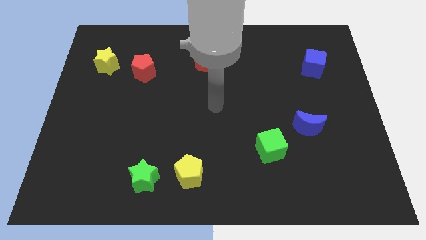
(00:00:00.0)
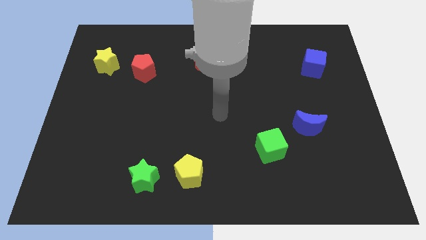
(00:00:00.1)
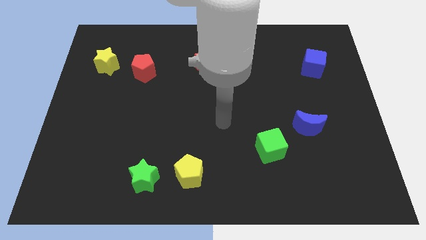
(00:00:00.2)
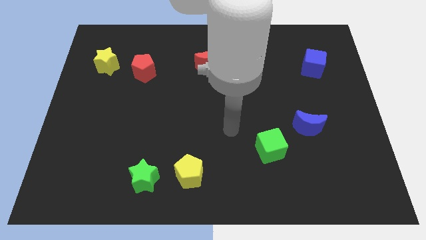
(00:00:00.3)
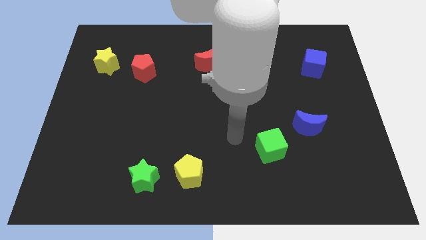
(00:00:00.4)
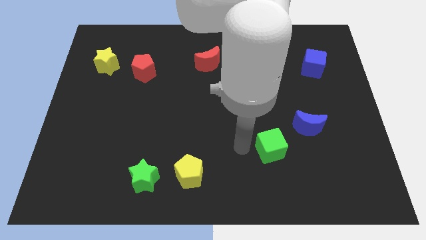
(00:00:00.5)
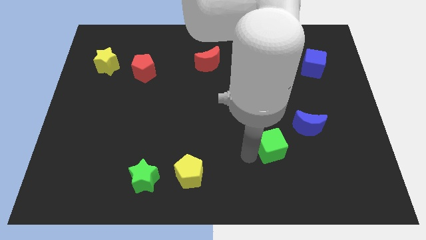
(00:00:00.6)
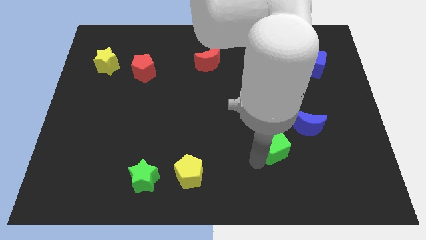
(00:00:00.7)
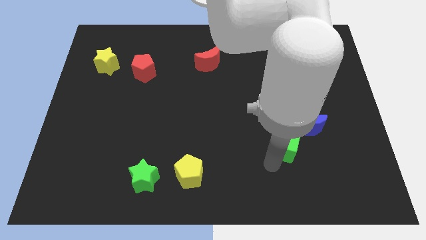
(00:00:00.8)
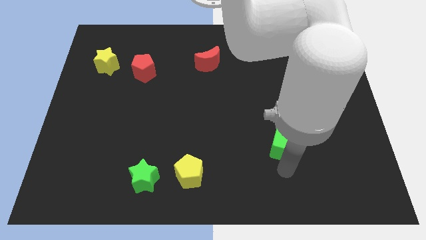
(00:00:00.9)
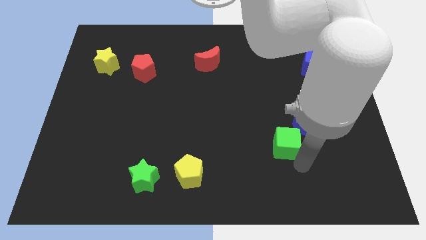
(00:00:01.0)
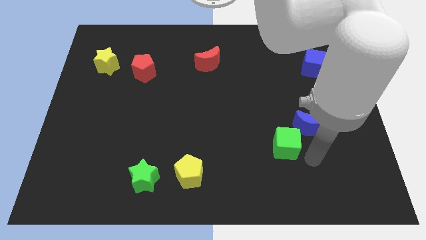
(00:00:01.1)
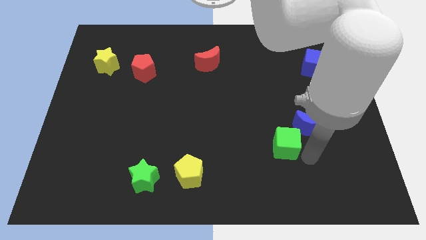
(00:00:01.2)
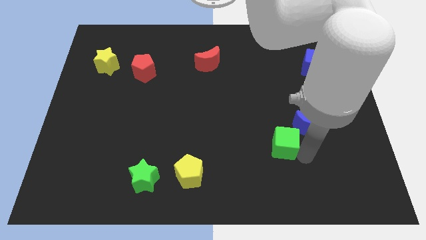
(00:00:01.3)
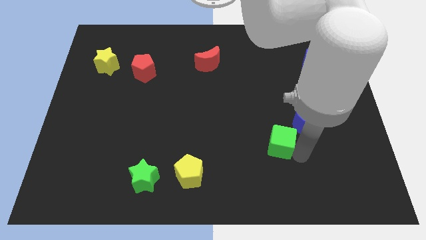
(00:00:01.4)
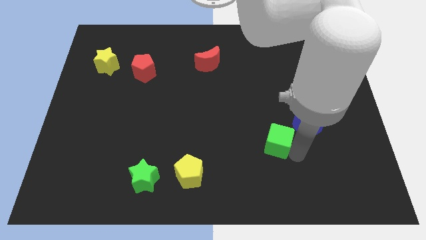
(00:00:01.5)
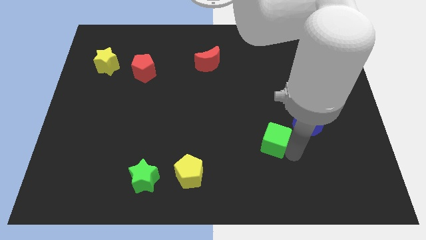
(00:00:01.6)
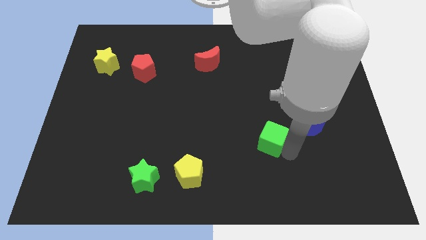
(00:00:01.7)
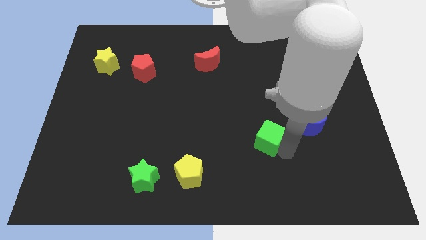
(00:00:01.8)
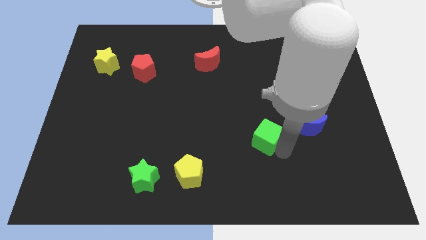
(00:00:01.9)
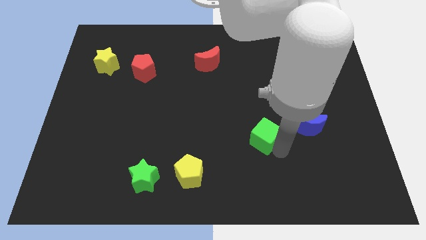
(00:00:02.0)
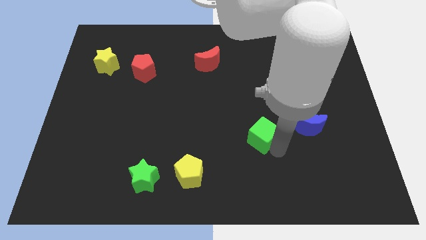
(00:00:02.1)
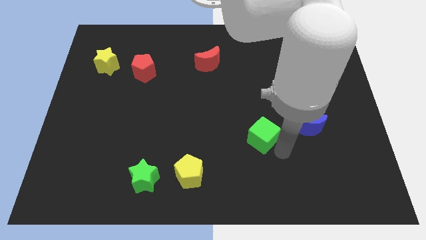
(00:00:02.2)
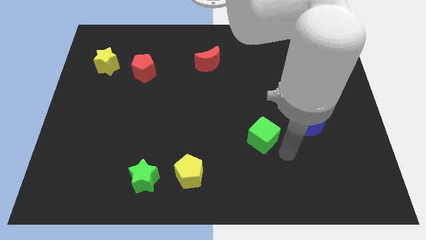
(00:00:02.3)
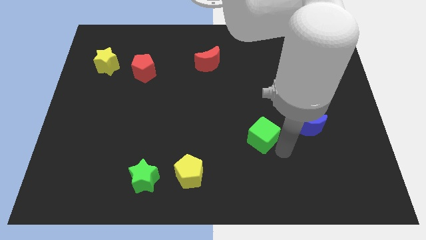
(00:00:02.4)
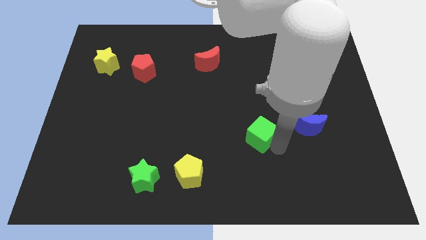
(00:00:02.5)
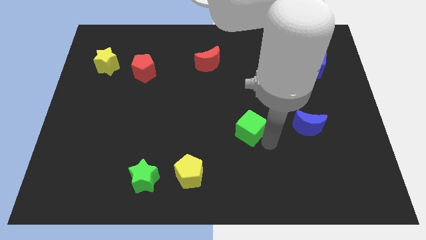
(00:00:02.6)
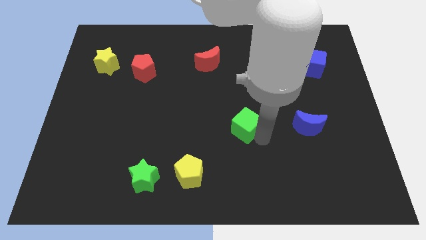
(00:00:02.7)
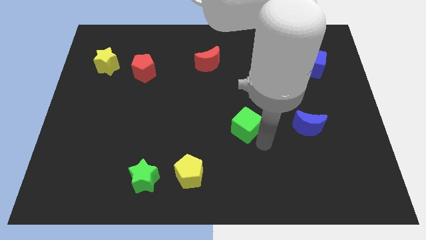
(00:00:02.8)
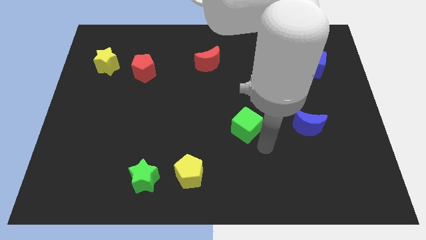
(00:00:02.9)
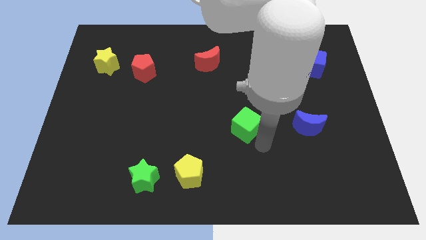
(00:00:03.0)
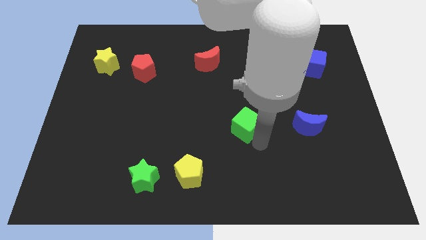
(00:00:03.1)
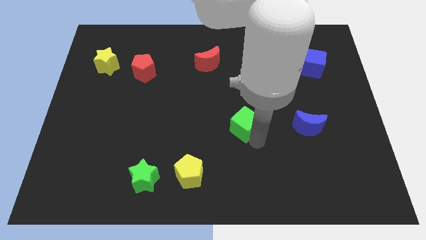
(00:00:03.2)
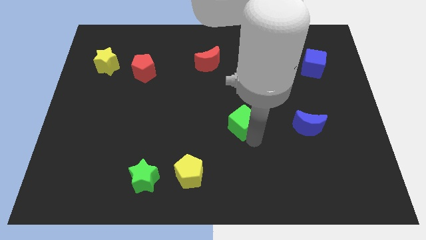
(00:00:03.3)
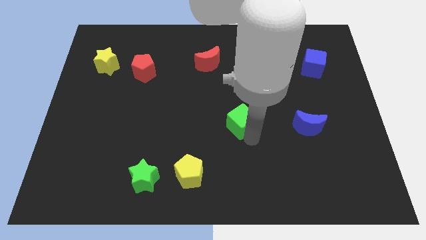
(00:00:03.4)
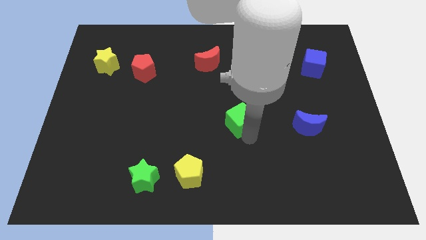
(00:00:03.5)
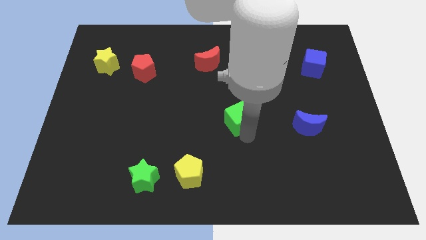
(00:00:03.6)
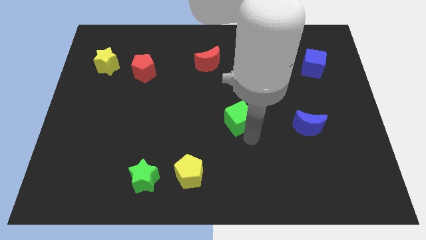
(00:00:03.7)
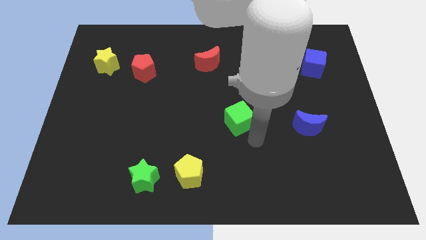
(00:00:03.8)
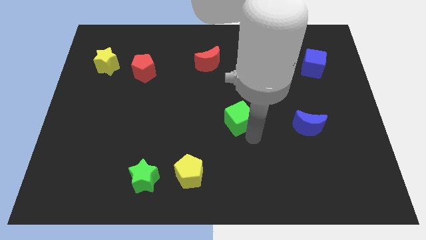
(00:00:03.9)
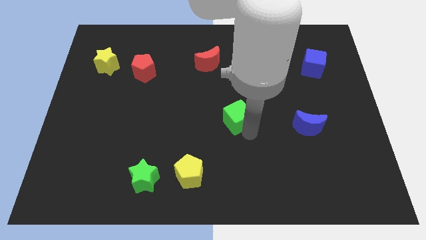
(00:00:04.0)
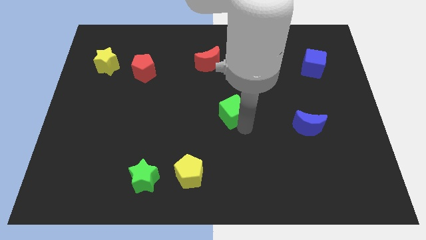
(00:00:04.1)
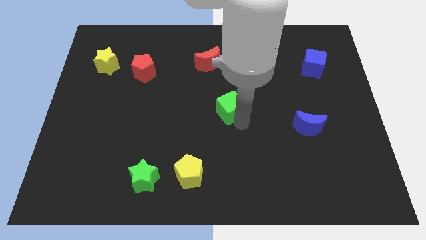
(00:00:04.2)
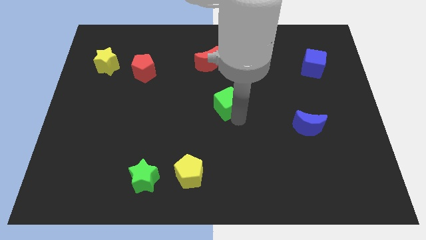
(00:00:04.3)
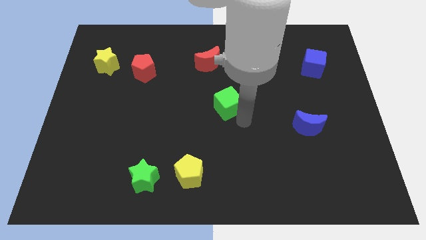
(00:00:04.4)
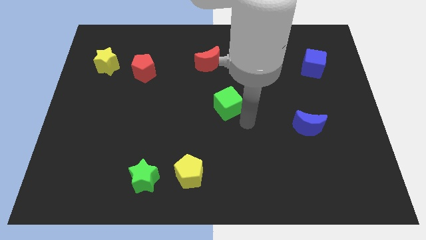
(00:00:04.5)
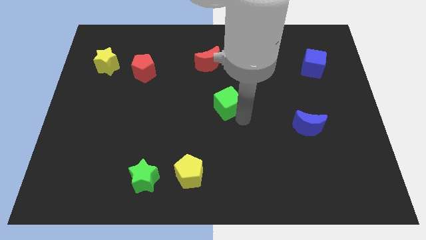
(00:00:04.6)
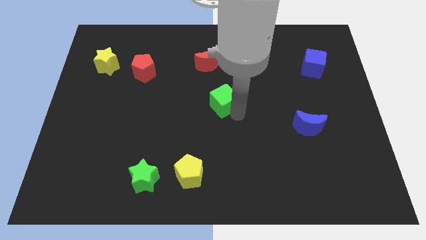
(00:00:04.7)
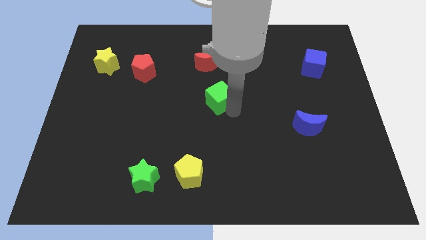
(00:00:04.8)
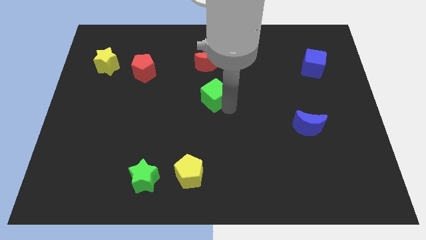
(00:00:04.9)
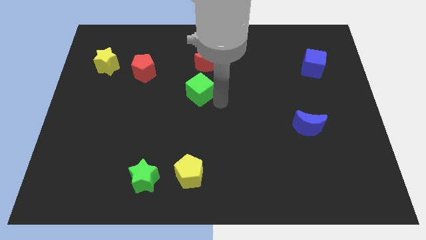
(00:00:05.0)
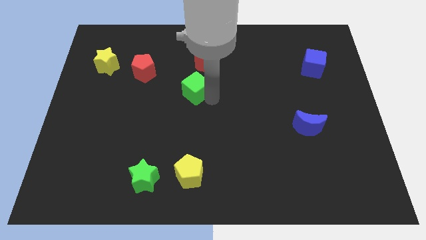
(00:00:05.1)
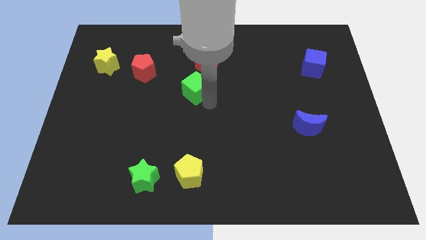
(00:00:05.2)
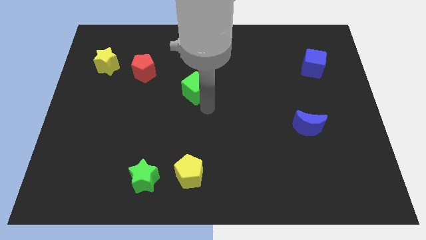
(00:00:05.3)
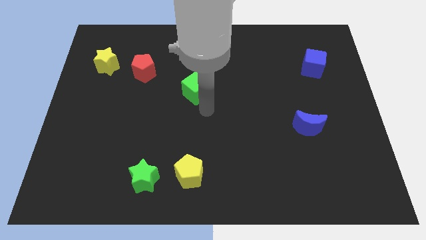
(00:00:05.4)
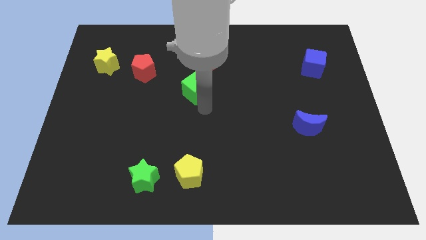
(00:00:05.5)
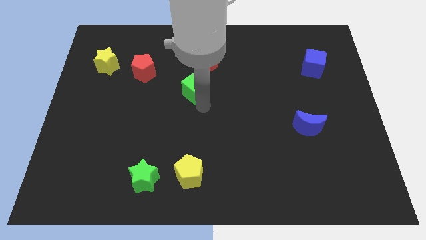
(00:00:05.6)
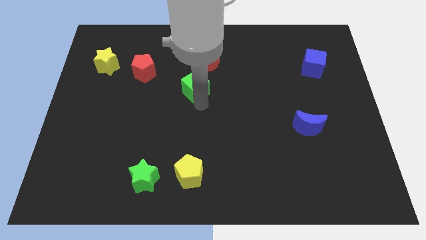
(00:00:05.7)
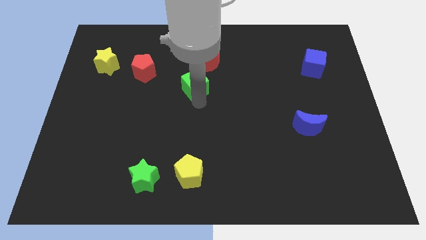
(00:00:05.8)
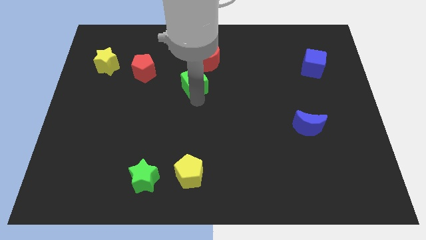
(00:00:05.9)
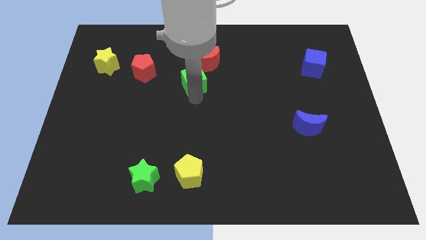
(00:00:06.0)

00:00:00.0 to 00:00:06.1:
push the green cube to the right side of the red pentagon

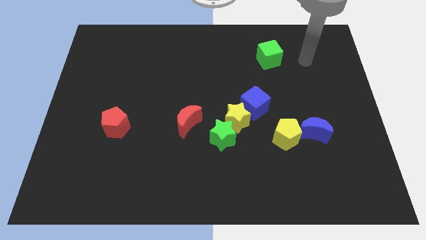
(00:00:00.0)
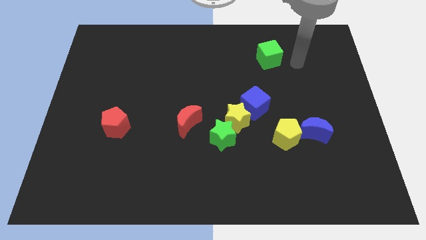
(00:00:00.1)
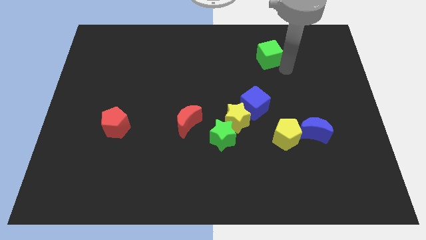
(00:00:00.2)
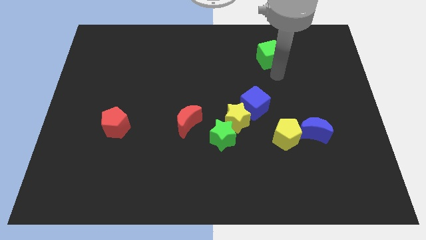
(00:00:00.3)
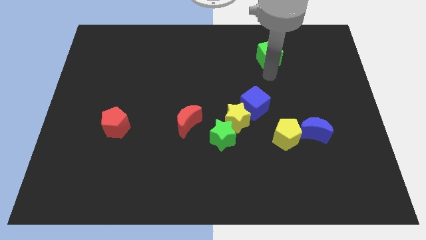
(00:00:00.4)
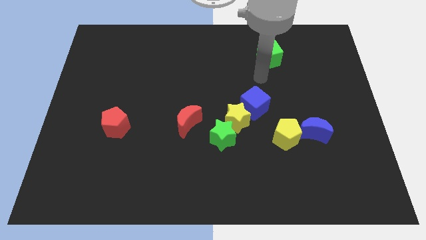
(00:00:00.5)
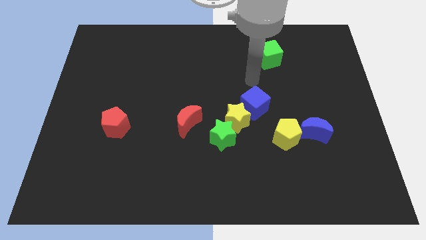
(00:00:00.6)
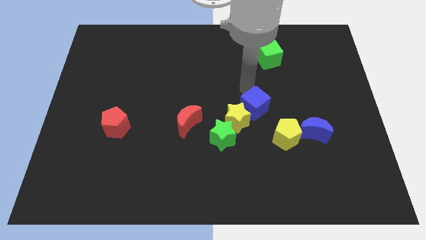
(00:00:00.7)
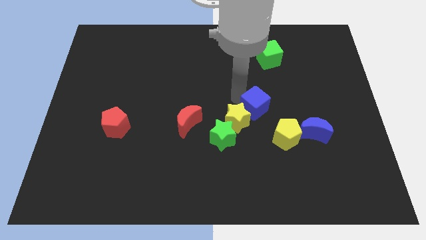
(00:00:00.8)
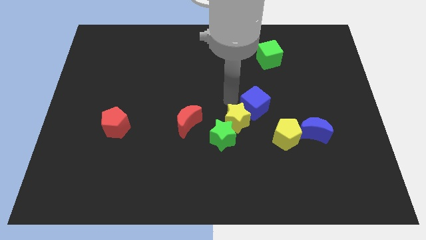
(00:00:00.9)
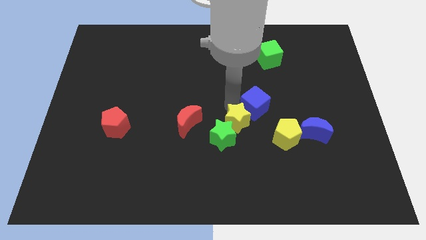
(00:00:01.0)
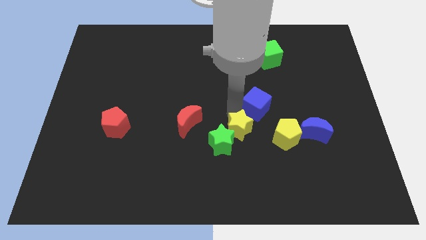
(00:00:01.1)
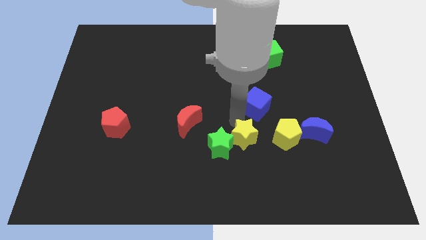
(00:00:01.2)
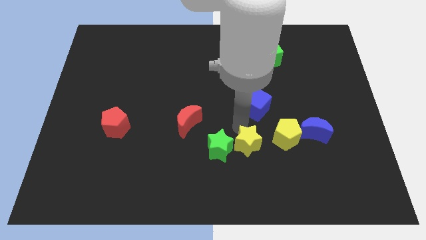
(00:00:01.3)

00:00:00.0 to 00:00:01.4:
push the yellow star diagonally down and to the right of the green star
